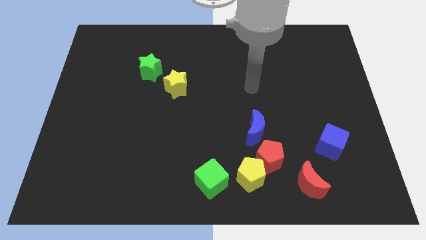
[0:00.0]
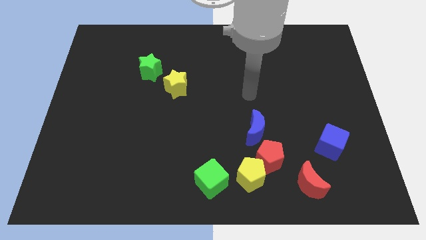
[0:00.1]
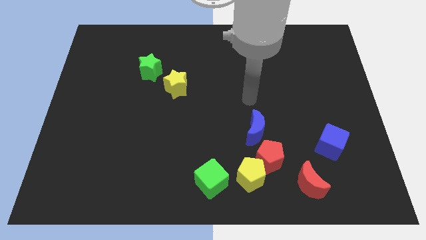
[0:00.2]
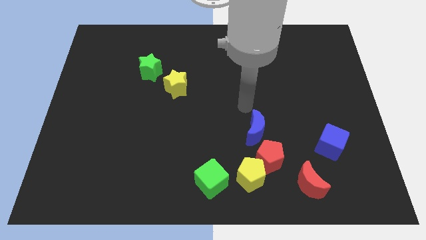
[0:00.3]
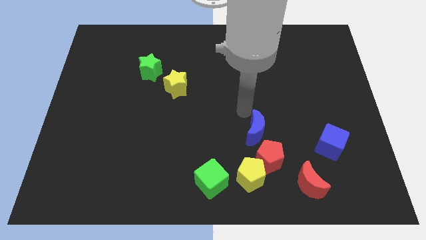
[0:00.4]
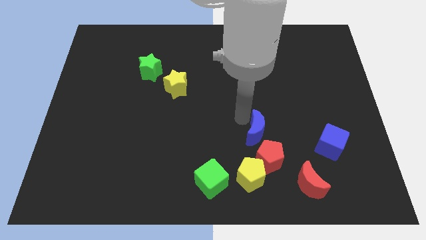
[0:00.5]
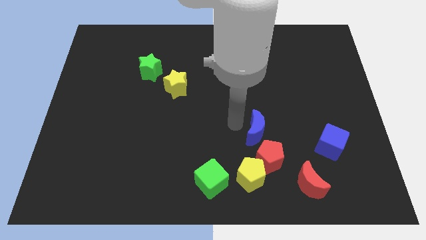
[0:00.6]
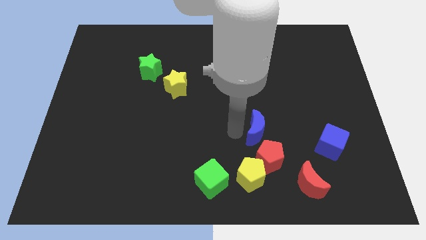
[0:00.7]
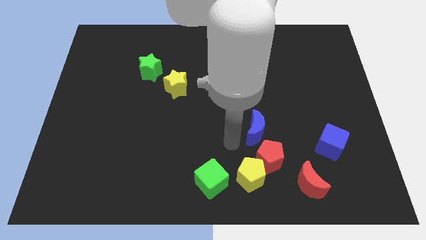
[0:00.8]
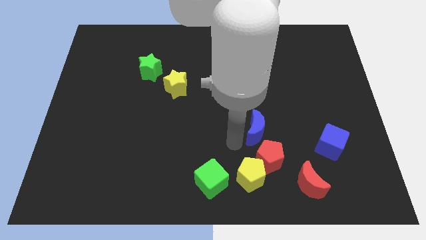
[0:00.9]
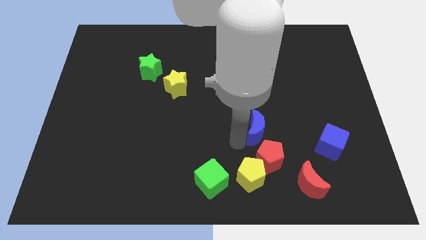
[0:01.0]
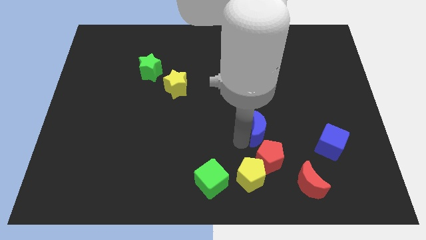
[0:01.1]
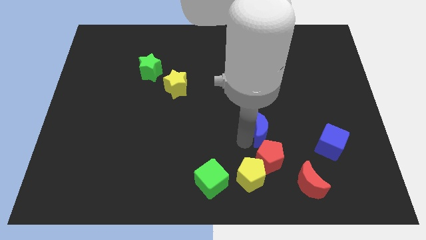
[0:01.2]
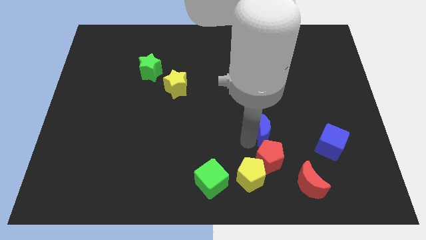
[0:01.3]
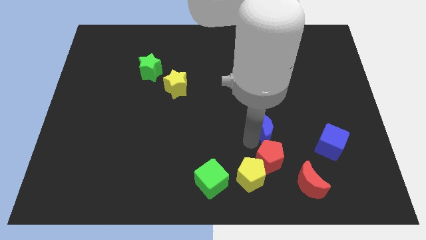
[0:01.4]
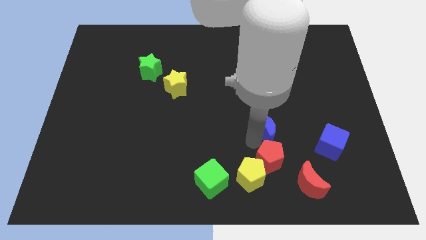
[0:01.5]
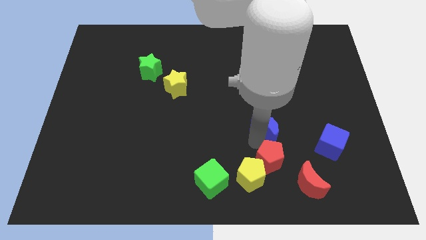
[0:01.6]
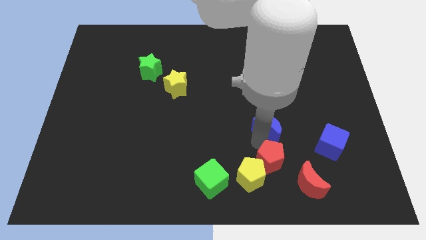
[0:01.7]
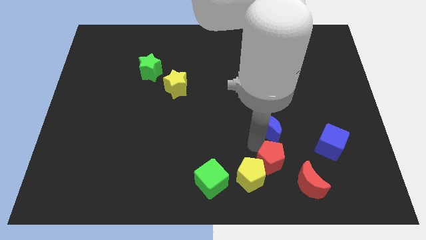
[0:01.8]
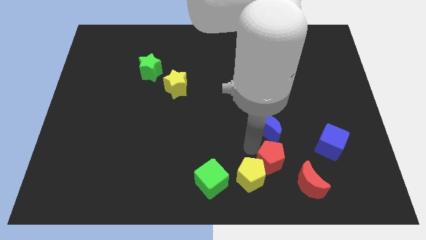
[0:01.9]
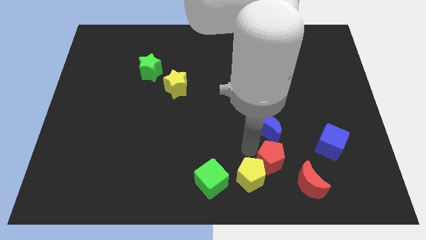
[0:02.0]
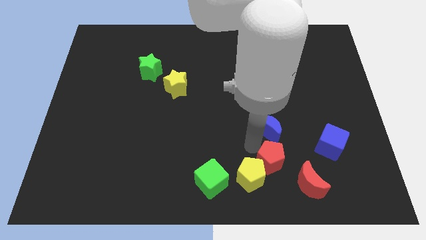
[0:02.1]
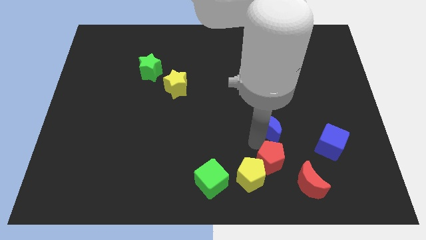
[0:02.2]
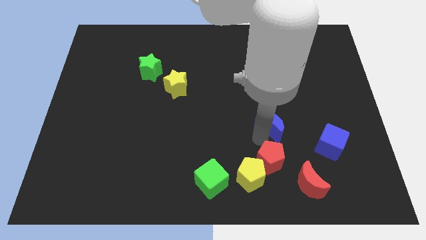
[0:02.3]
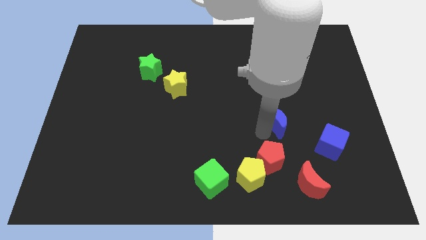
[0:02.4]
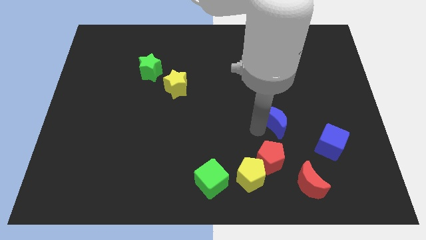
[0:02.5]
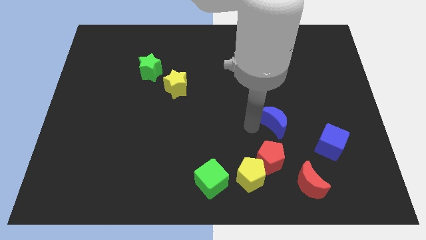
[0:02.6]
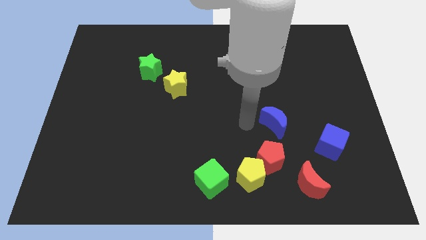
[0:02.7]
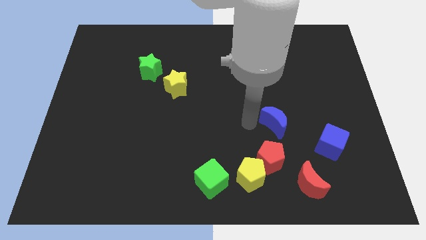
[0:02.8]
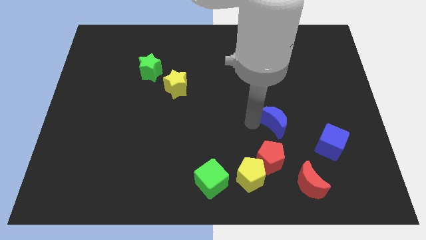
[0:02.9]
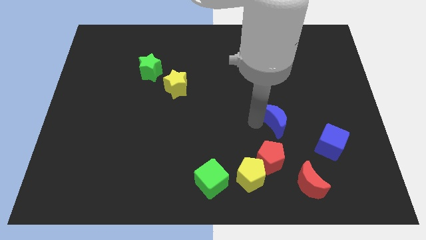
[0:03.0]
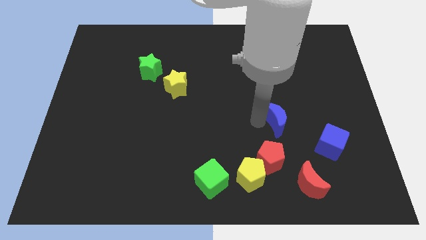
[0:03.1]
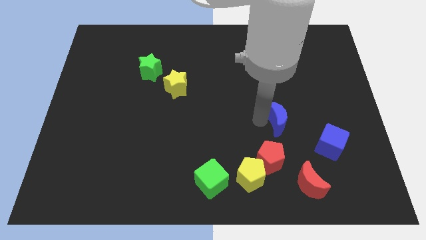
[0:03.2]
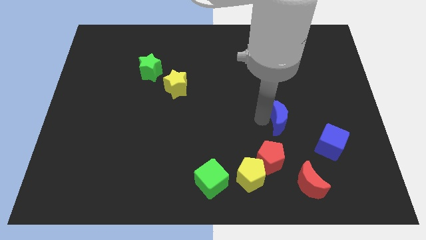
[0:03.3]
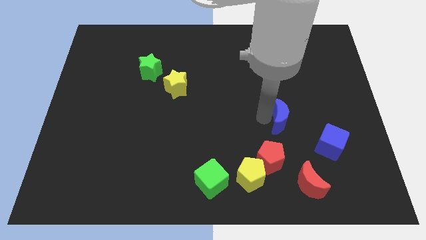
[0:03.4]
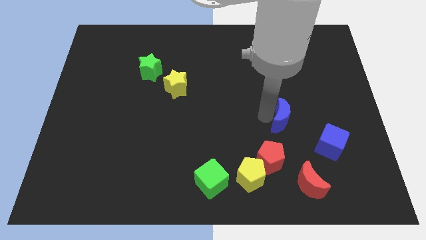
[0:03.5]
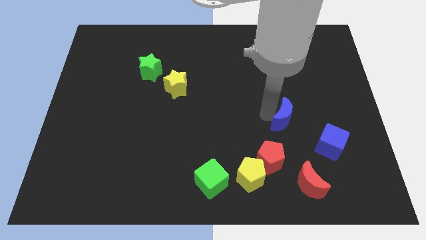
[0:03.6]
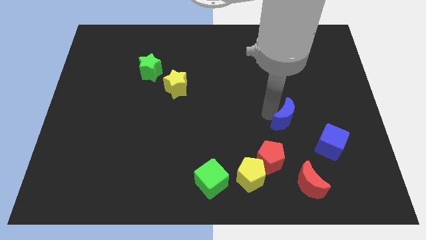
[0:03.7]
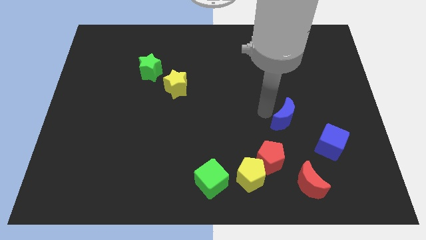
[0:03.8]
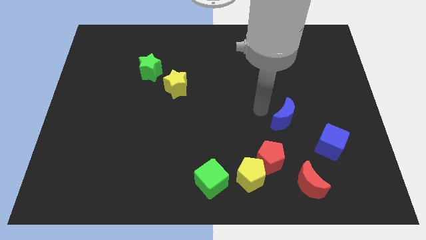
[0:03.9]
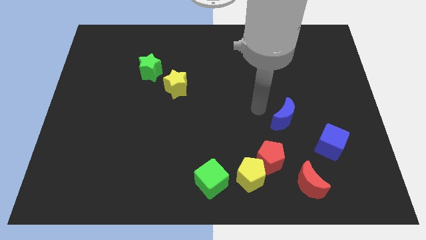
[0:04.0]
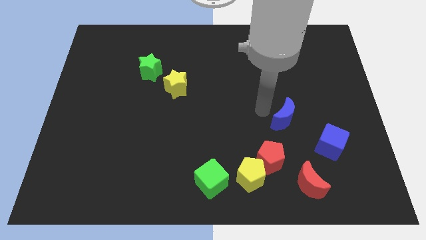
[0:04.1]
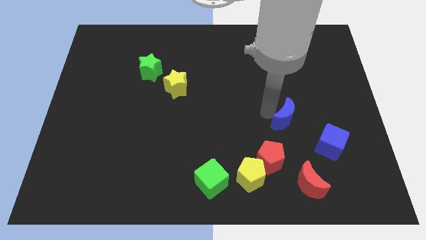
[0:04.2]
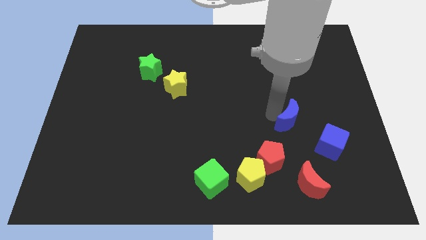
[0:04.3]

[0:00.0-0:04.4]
push the blue moon to the right a little

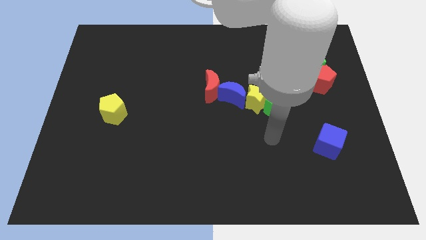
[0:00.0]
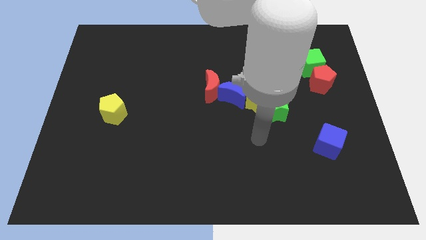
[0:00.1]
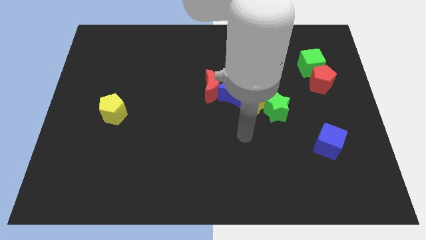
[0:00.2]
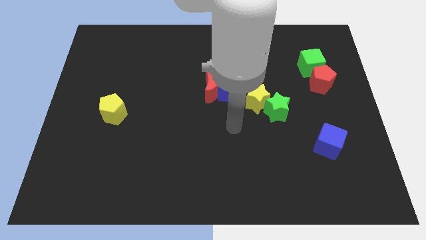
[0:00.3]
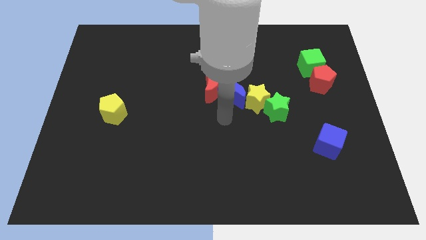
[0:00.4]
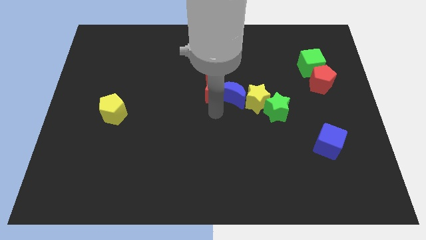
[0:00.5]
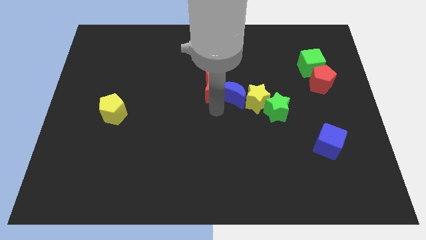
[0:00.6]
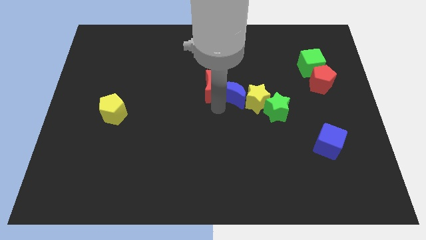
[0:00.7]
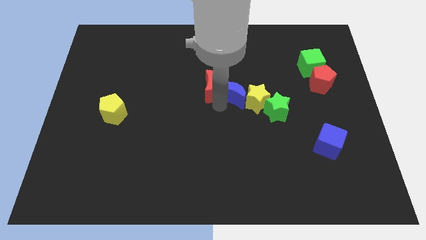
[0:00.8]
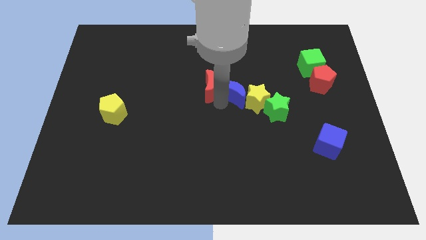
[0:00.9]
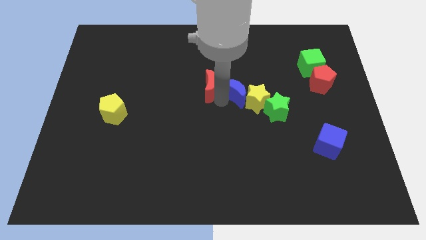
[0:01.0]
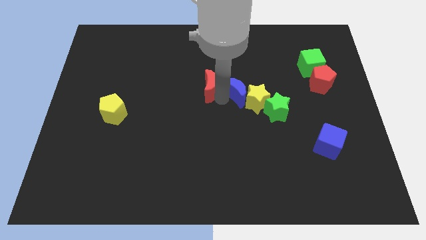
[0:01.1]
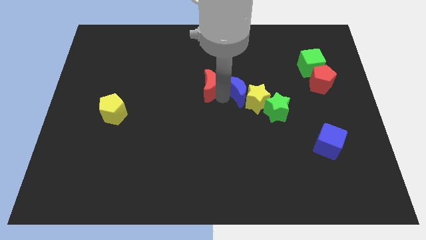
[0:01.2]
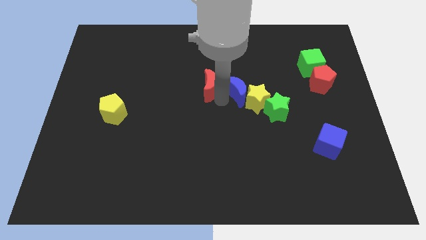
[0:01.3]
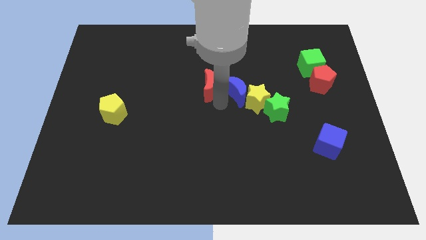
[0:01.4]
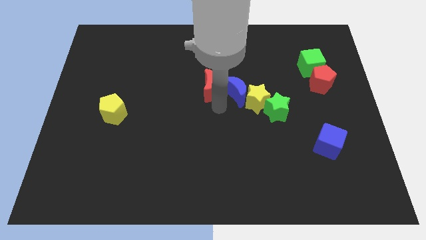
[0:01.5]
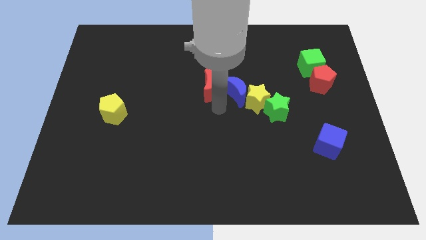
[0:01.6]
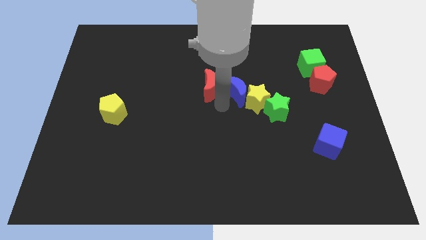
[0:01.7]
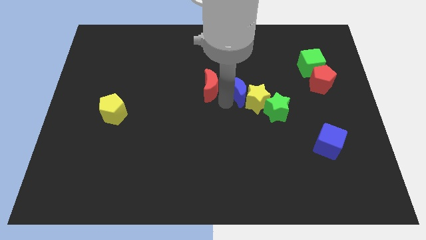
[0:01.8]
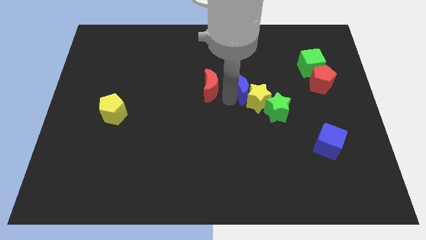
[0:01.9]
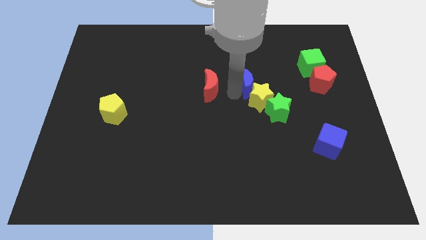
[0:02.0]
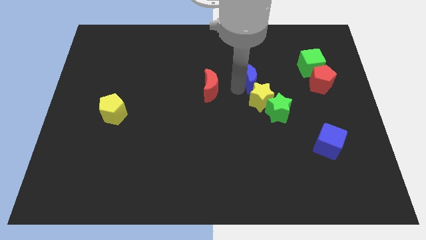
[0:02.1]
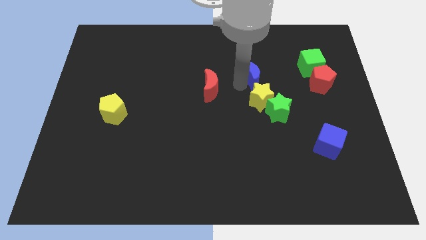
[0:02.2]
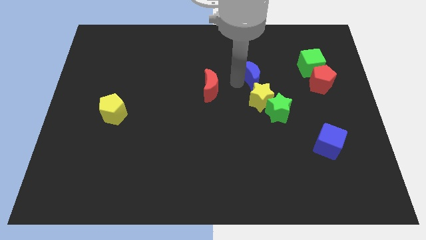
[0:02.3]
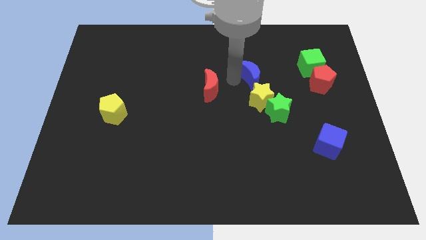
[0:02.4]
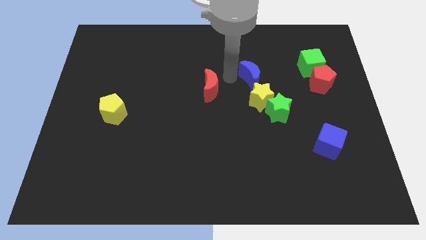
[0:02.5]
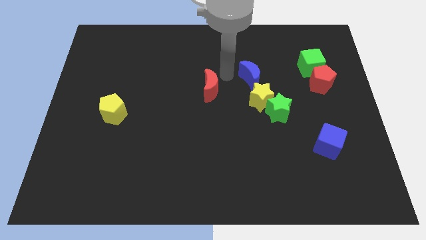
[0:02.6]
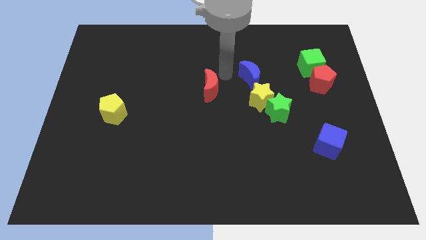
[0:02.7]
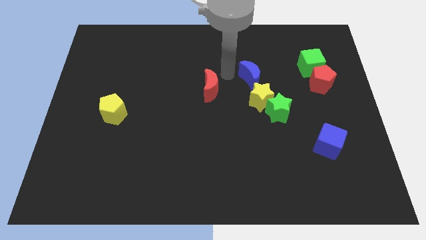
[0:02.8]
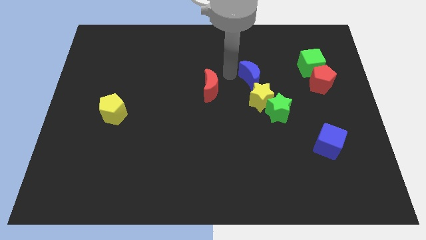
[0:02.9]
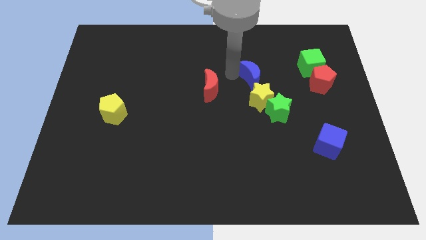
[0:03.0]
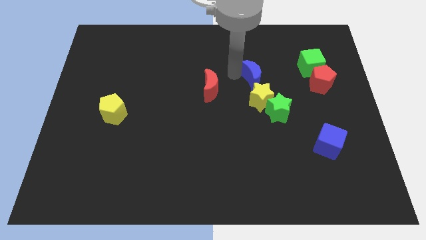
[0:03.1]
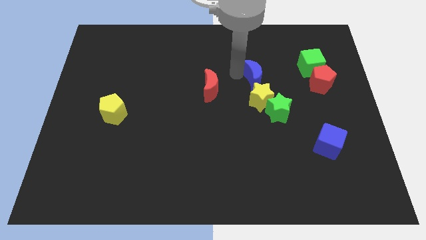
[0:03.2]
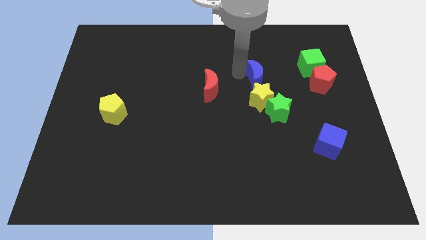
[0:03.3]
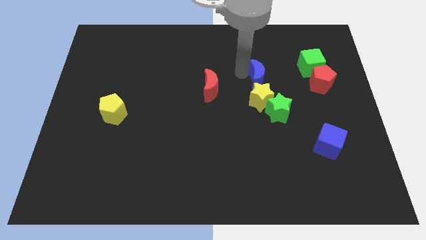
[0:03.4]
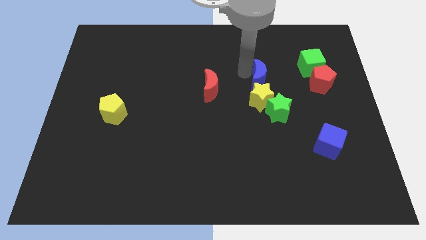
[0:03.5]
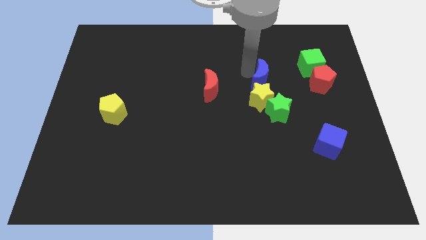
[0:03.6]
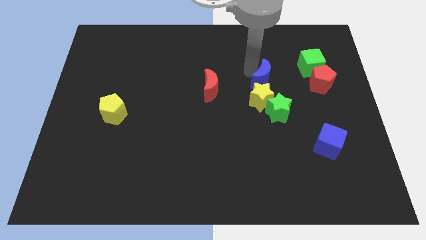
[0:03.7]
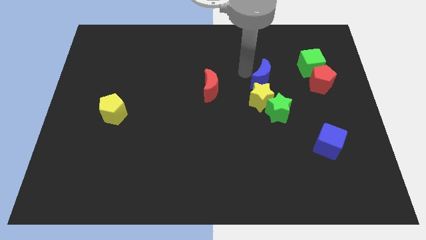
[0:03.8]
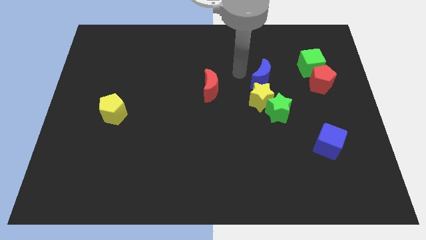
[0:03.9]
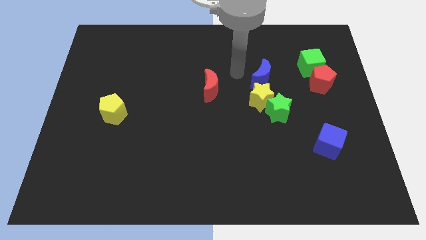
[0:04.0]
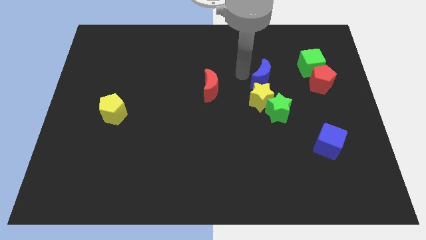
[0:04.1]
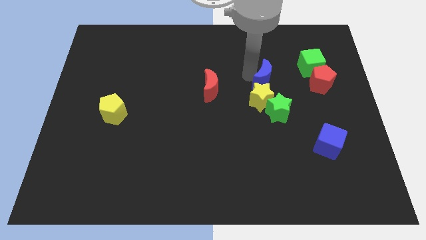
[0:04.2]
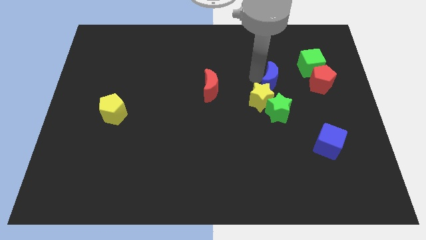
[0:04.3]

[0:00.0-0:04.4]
slide the blue moon to the right a little
